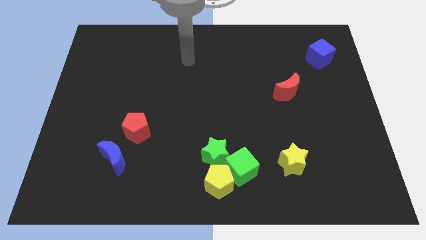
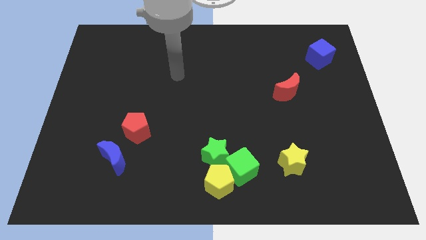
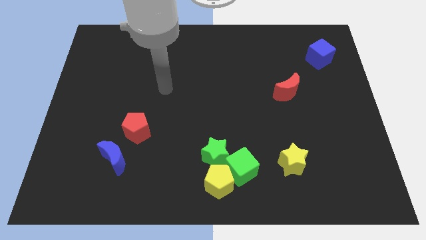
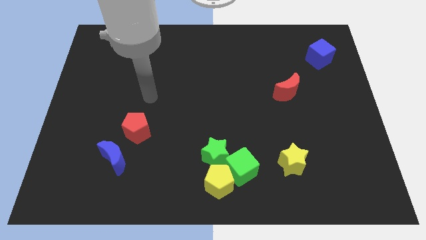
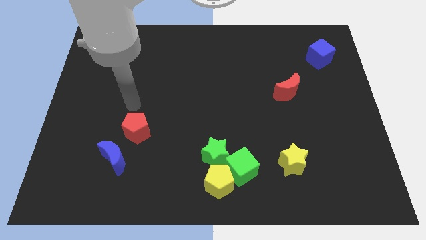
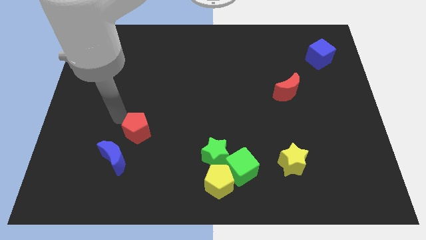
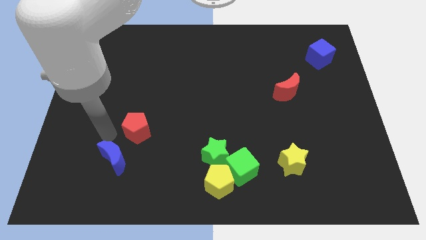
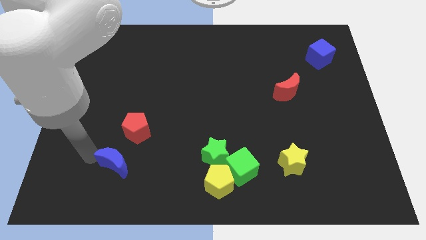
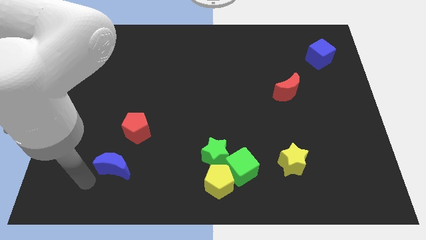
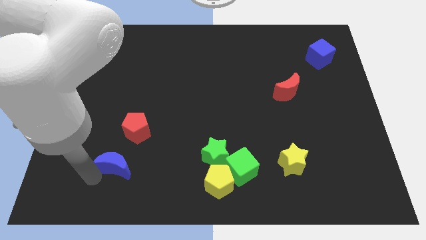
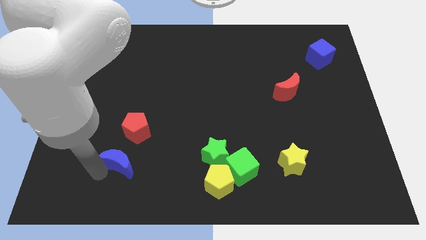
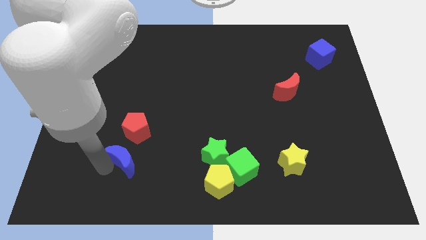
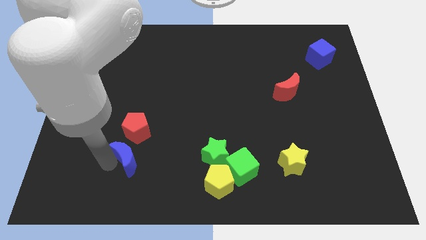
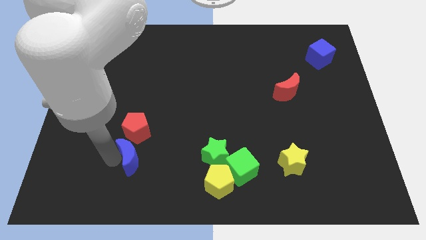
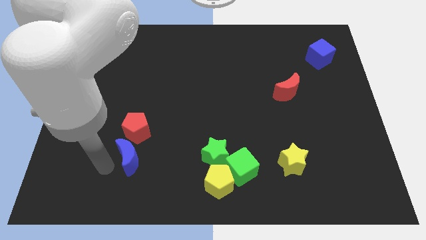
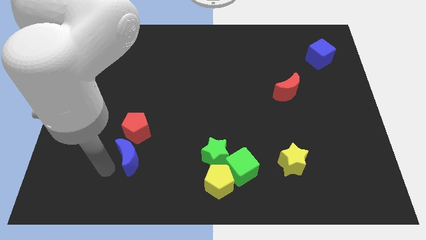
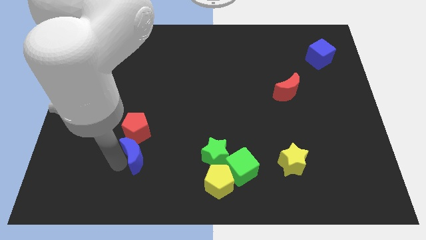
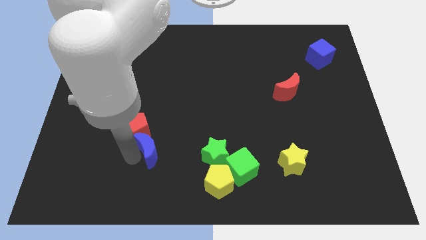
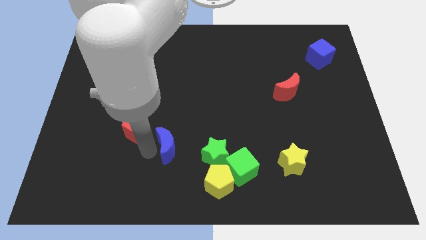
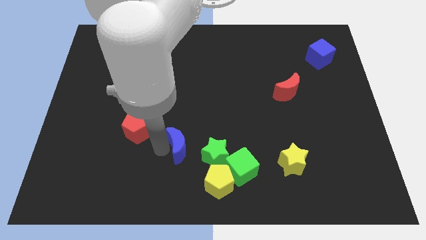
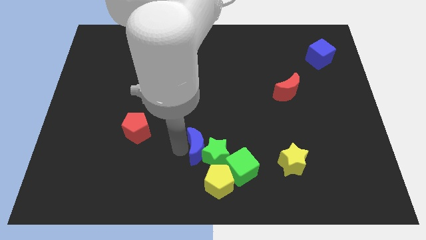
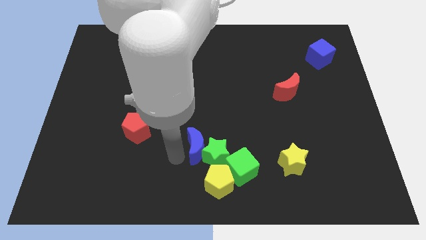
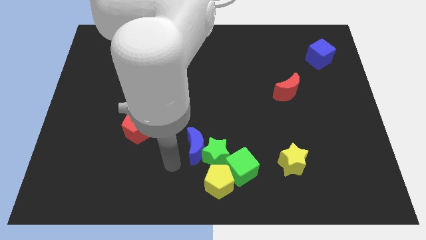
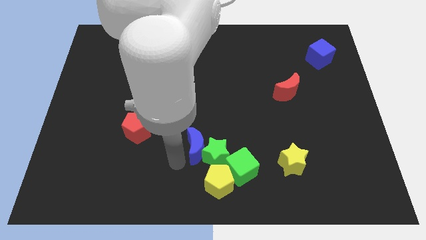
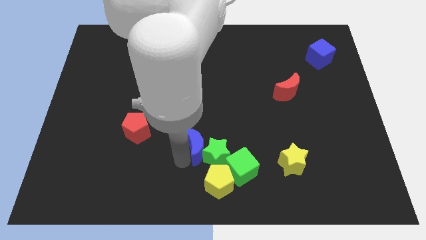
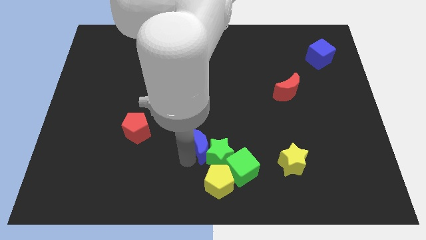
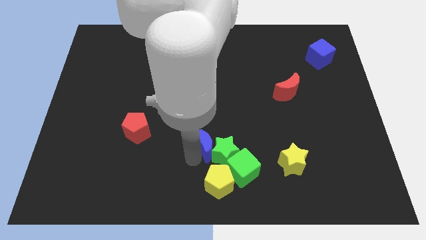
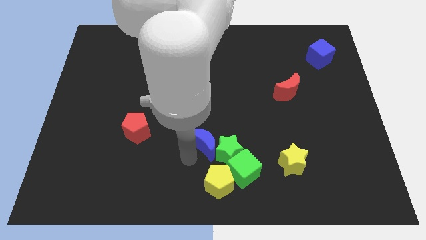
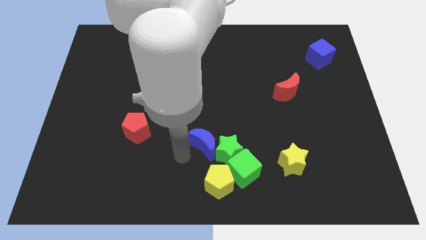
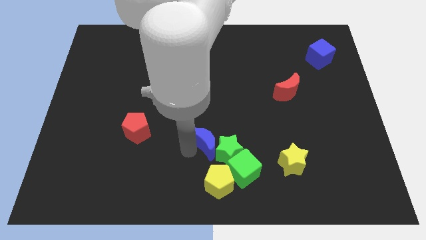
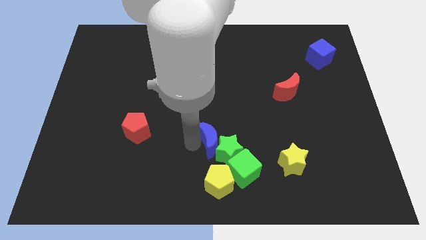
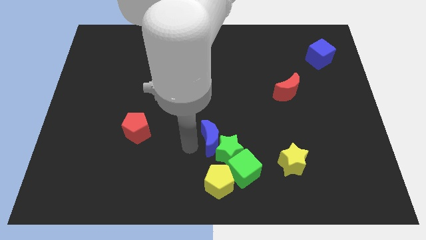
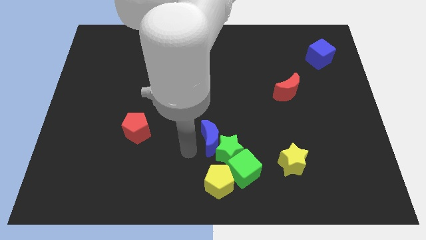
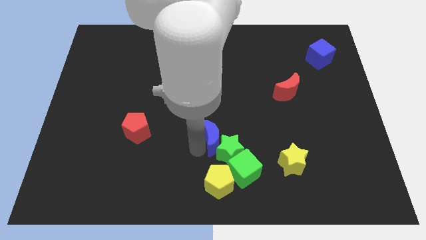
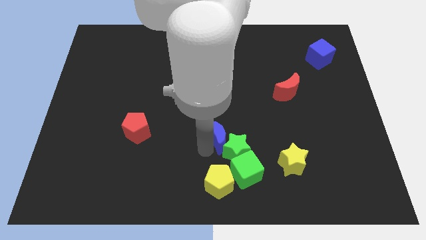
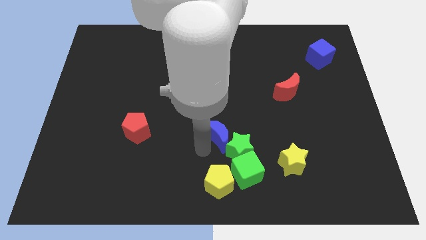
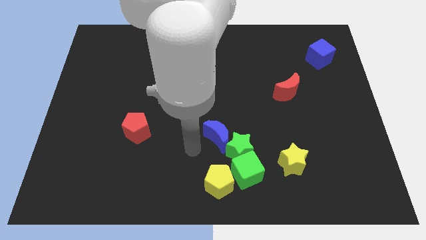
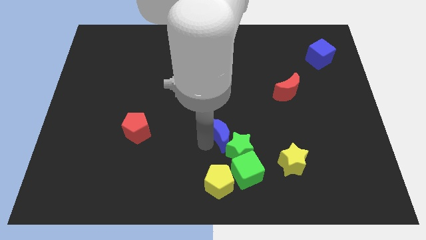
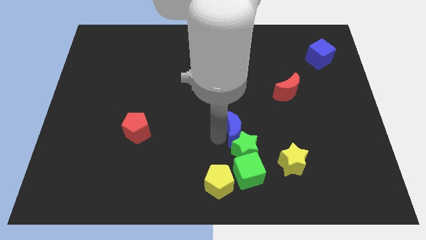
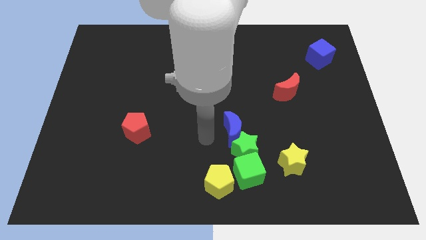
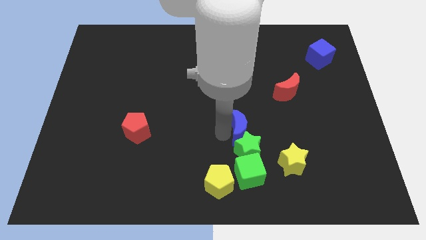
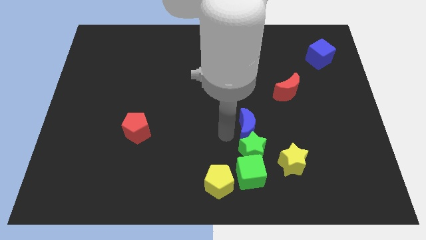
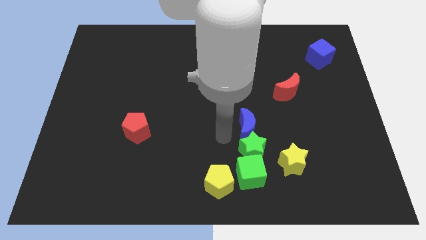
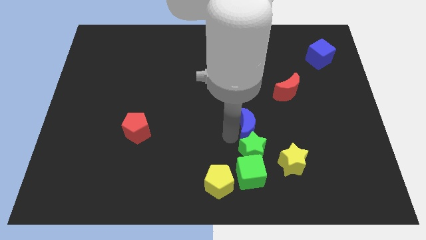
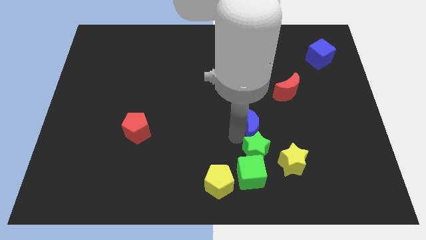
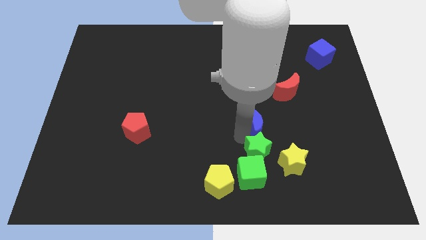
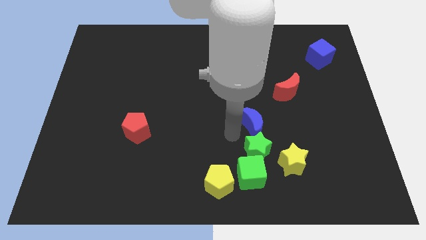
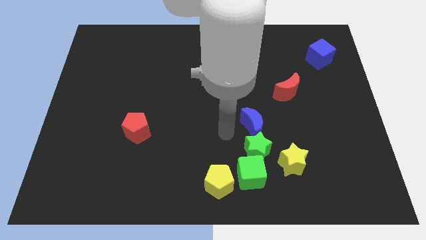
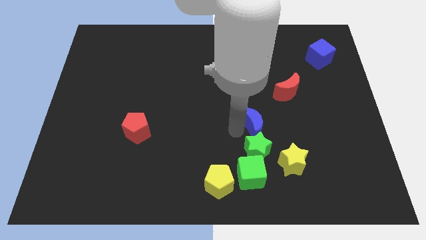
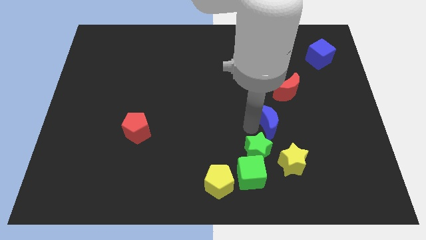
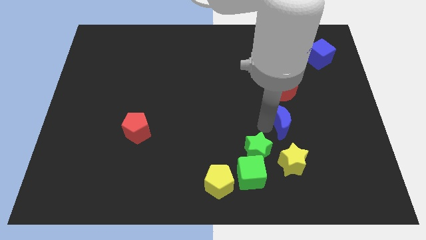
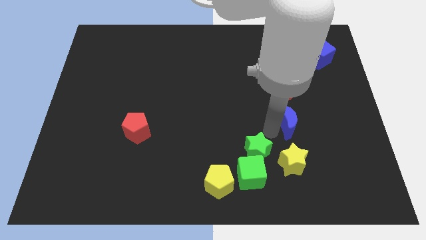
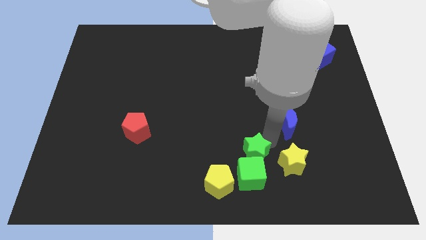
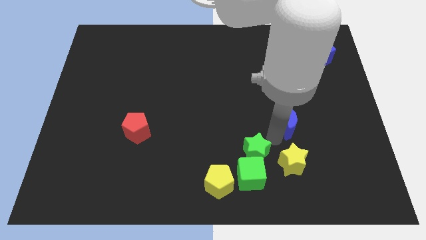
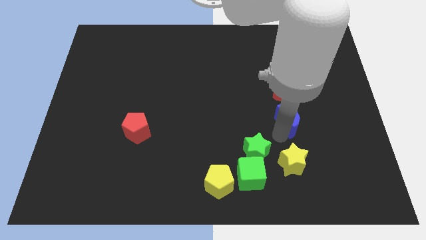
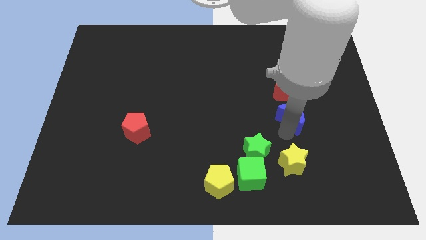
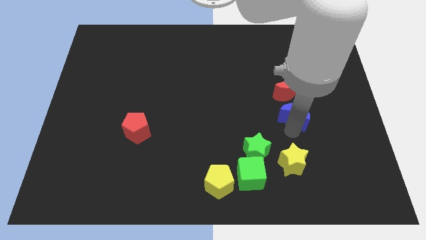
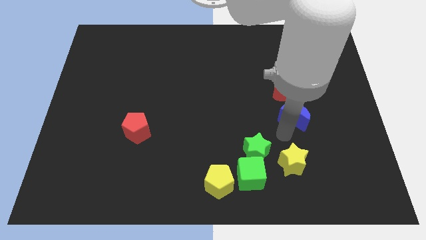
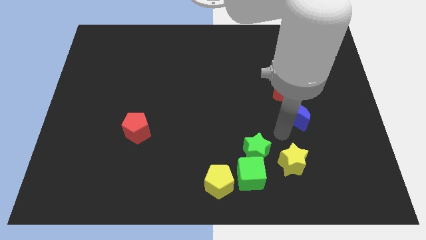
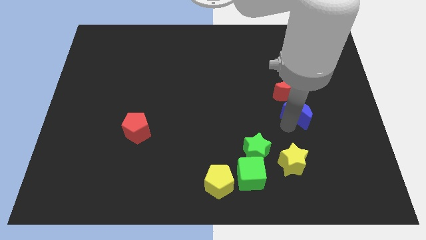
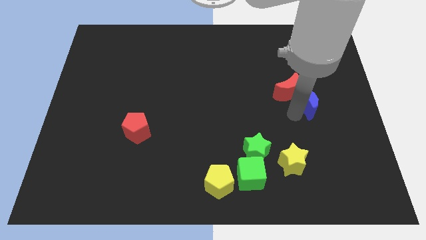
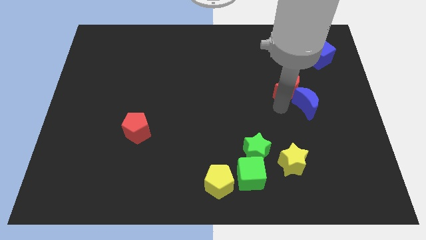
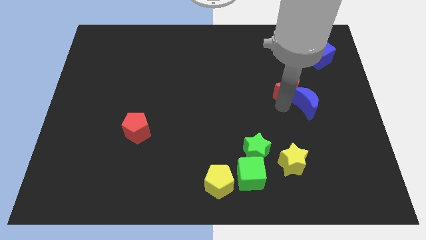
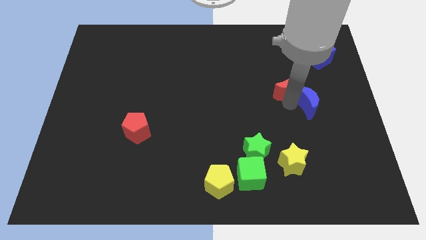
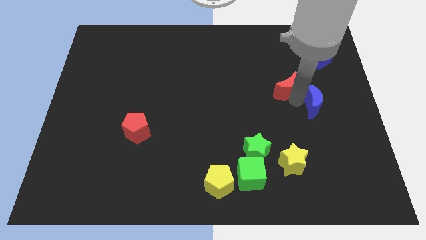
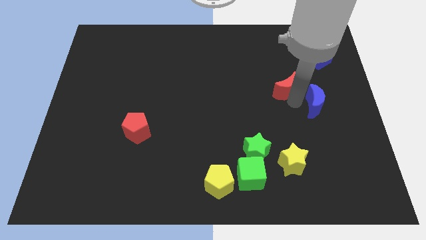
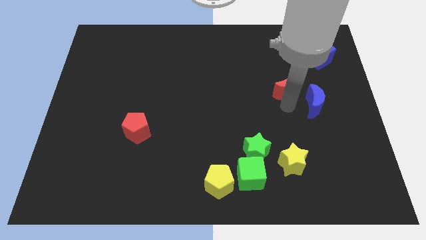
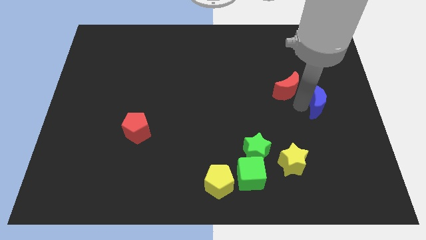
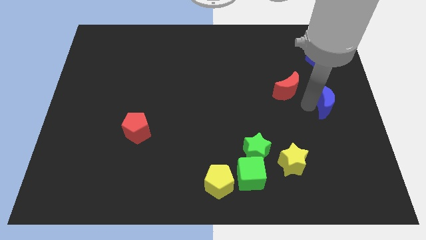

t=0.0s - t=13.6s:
move the blue moon to the center right
